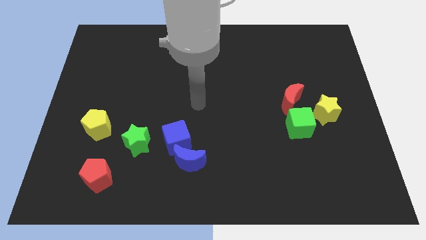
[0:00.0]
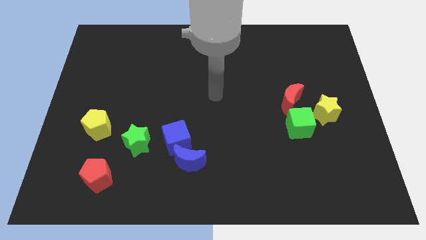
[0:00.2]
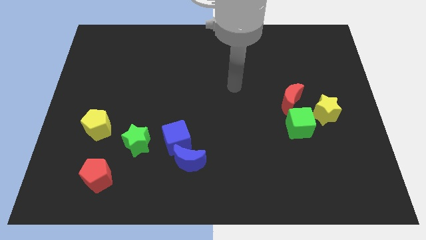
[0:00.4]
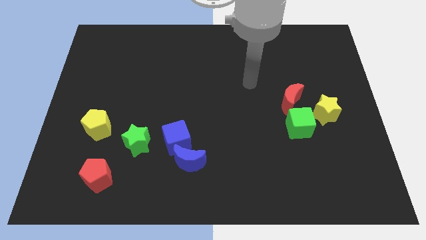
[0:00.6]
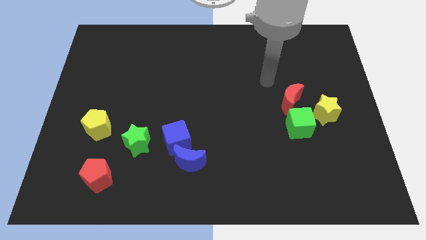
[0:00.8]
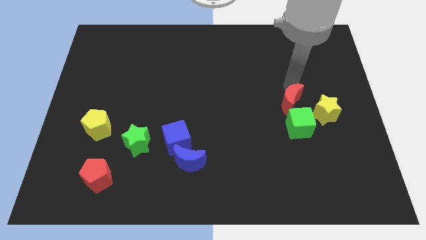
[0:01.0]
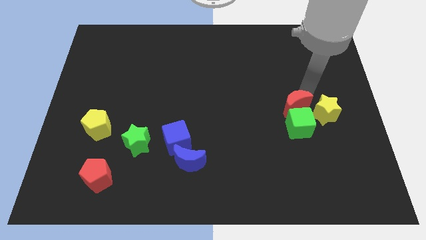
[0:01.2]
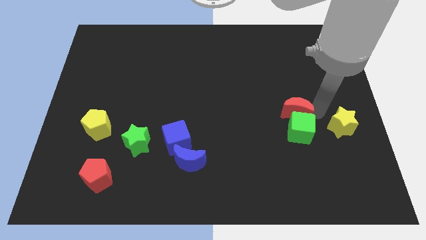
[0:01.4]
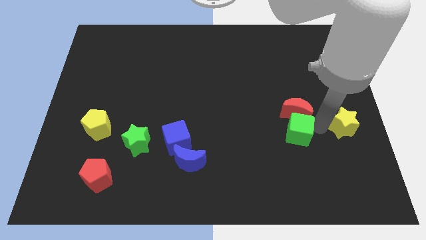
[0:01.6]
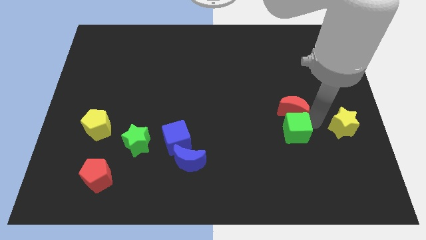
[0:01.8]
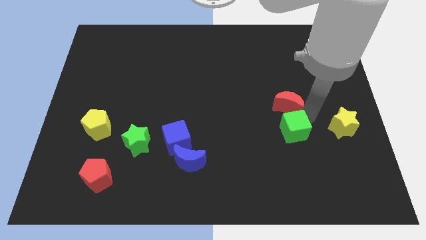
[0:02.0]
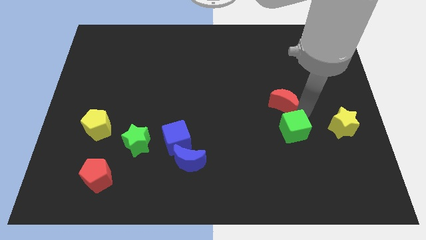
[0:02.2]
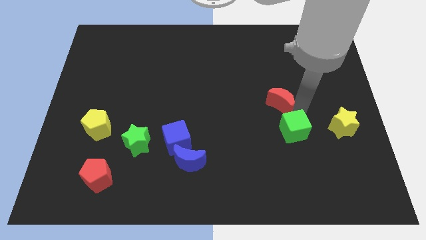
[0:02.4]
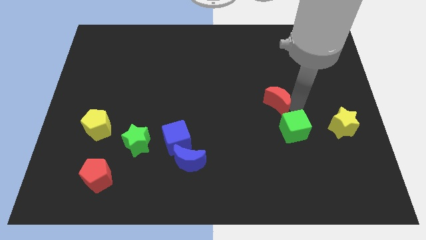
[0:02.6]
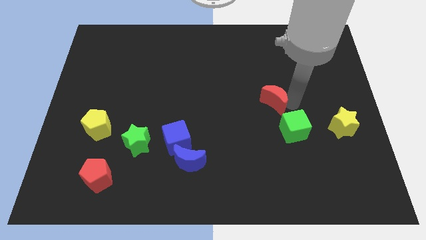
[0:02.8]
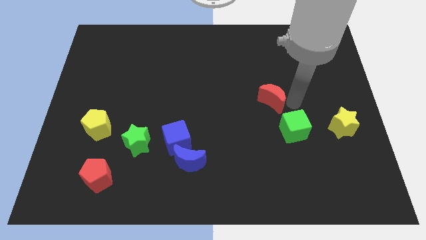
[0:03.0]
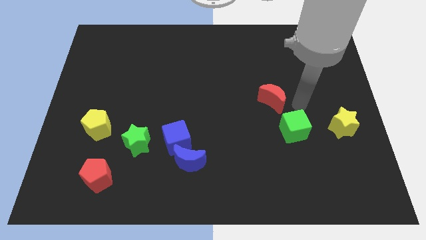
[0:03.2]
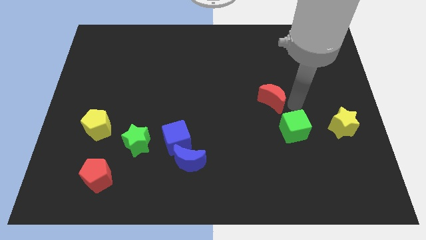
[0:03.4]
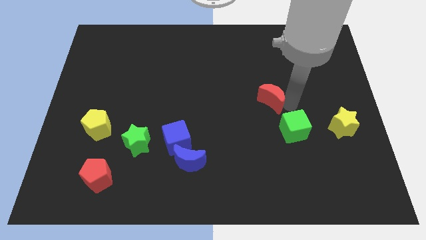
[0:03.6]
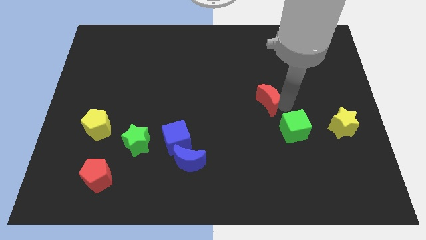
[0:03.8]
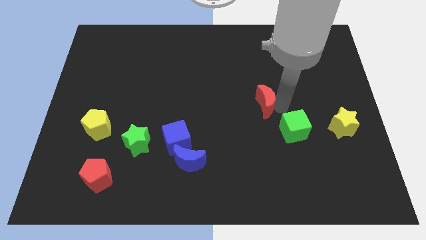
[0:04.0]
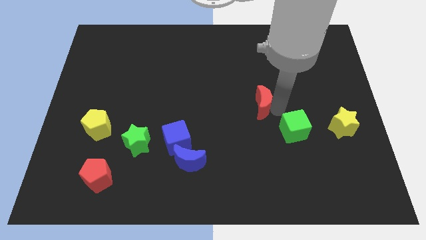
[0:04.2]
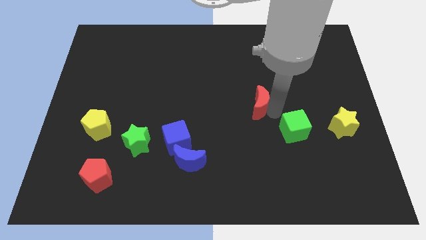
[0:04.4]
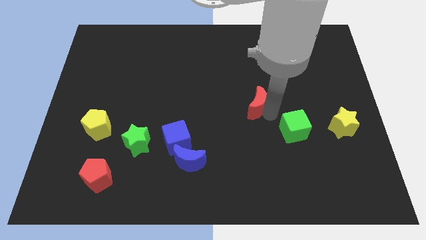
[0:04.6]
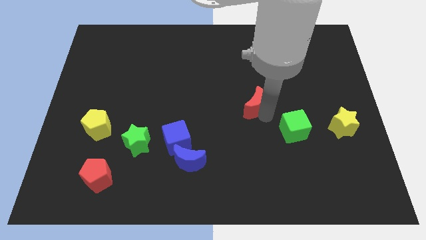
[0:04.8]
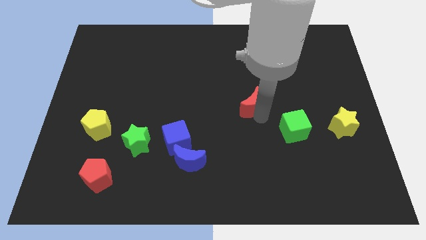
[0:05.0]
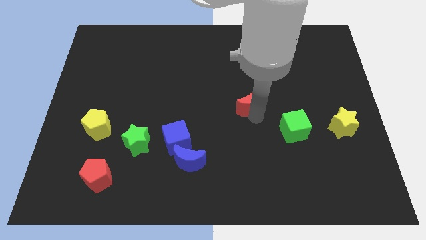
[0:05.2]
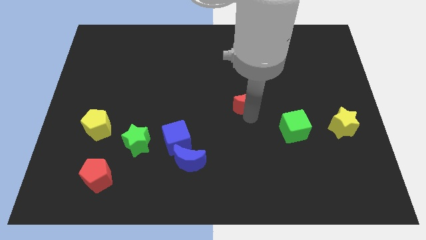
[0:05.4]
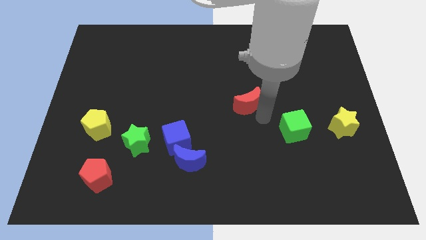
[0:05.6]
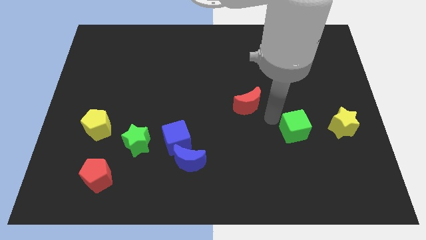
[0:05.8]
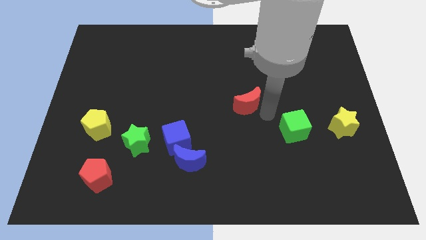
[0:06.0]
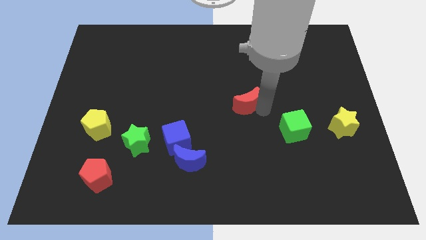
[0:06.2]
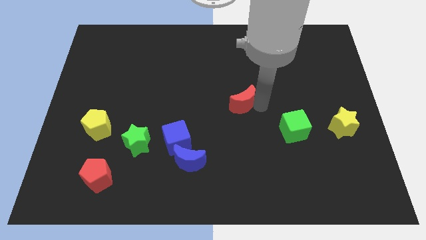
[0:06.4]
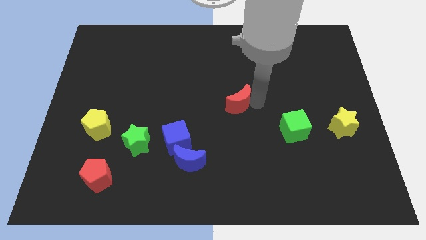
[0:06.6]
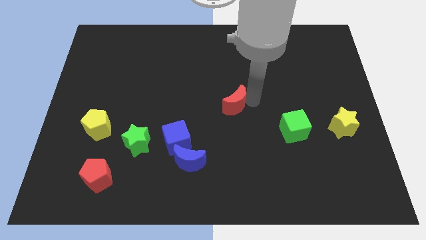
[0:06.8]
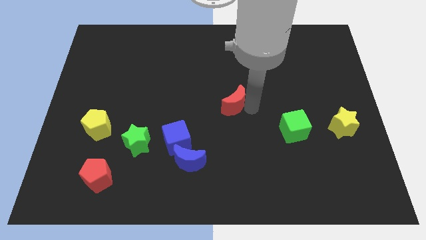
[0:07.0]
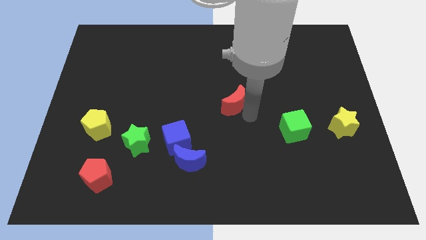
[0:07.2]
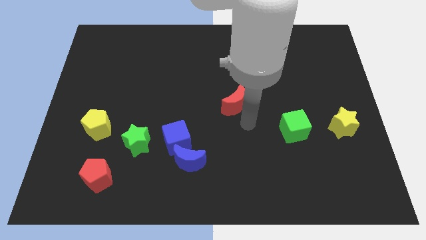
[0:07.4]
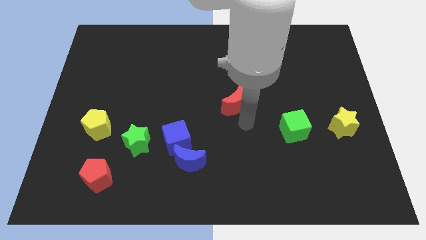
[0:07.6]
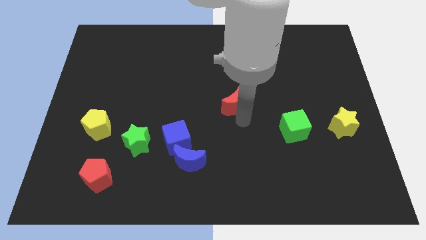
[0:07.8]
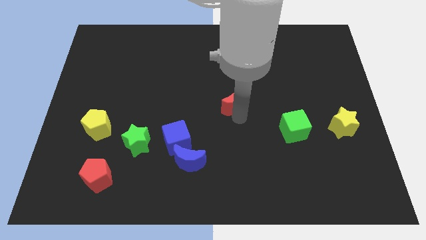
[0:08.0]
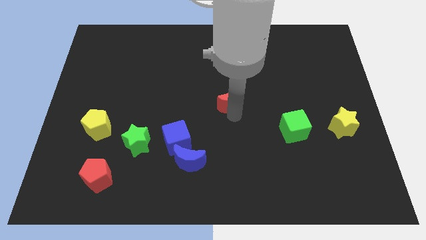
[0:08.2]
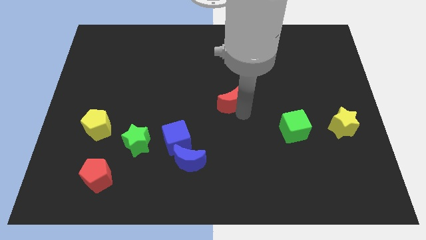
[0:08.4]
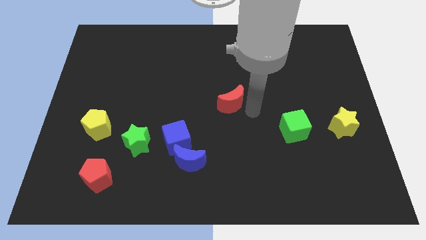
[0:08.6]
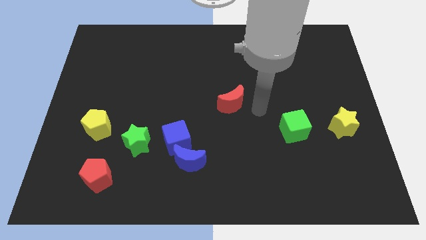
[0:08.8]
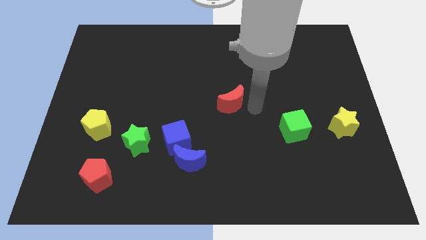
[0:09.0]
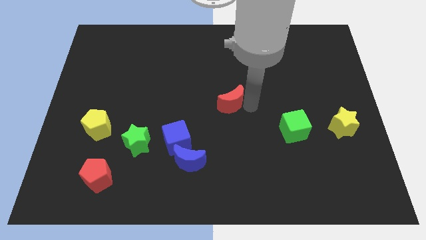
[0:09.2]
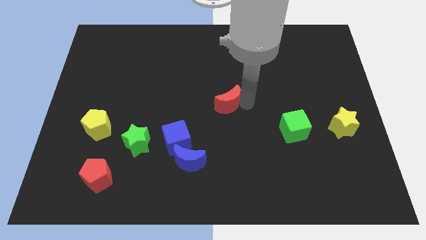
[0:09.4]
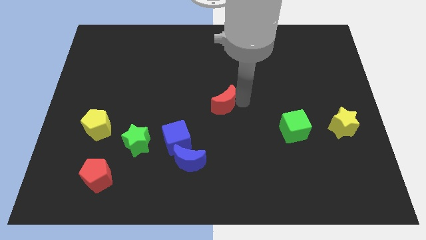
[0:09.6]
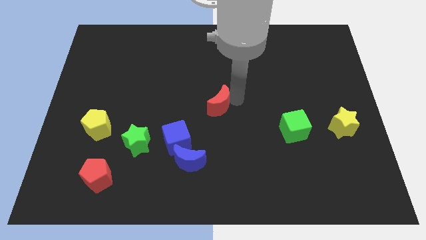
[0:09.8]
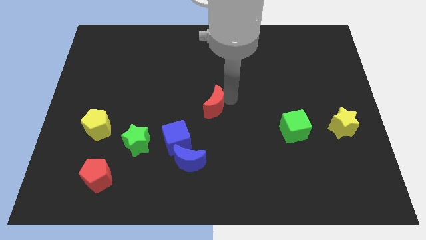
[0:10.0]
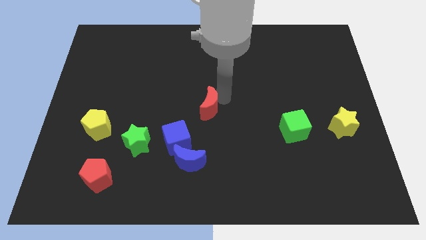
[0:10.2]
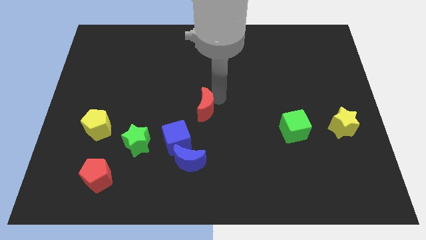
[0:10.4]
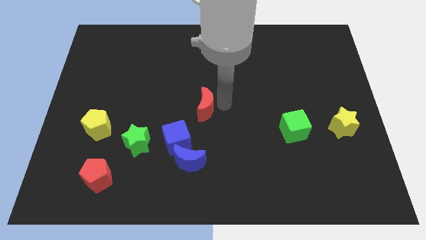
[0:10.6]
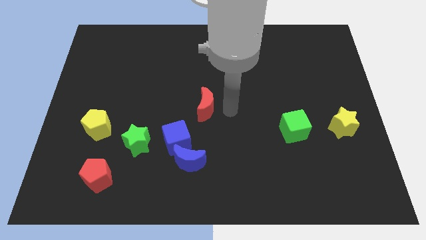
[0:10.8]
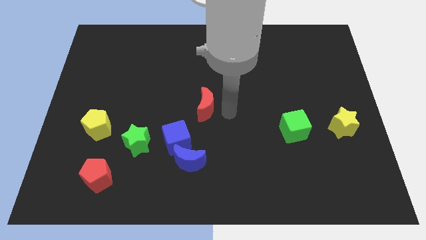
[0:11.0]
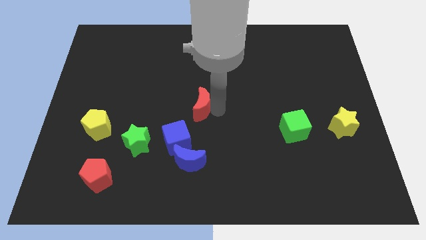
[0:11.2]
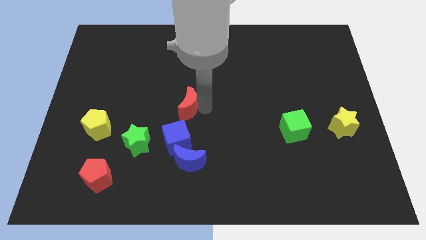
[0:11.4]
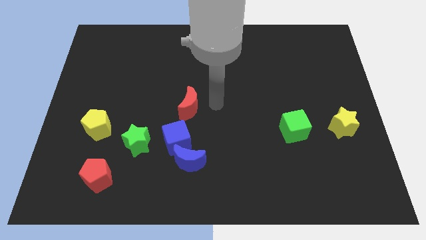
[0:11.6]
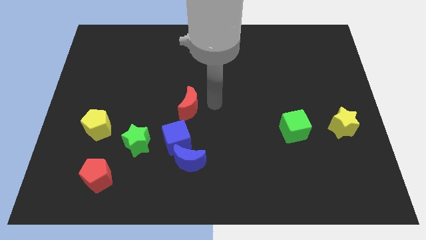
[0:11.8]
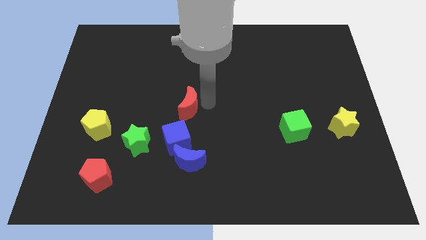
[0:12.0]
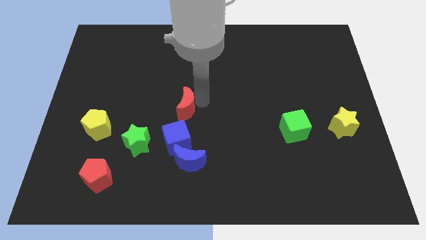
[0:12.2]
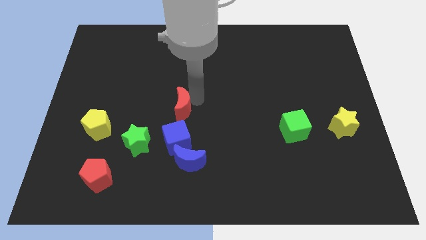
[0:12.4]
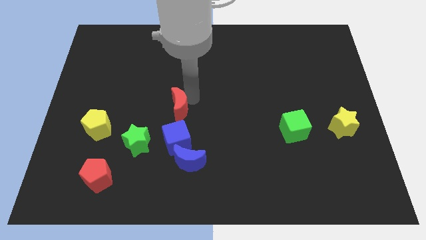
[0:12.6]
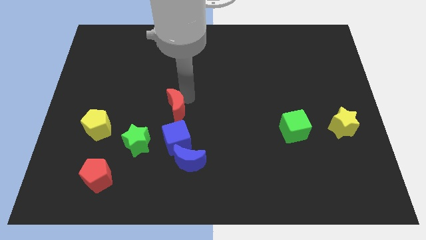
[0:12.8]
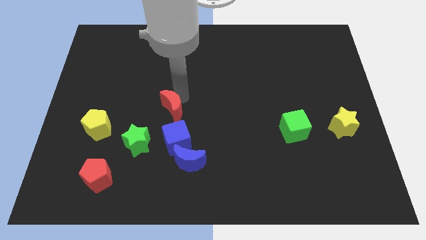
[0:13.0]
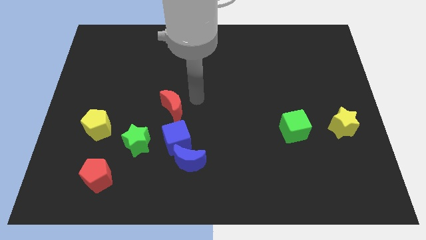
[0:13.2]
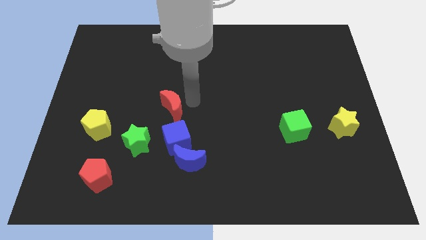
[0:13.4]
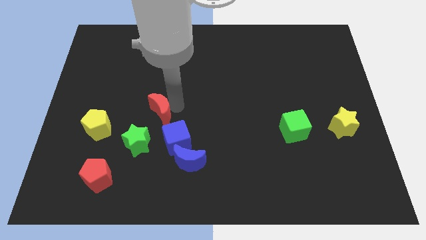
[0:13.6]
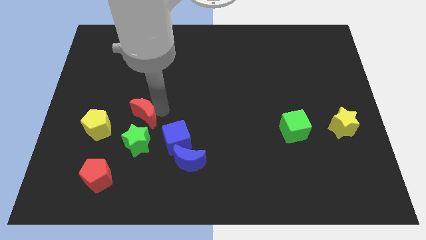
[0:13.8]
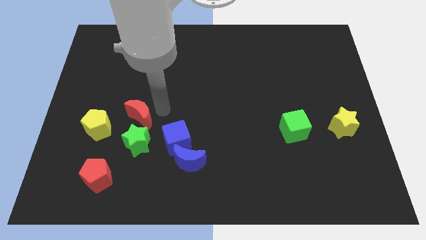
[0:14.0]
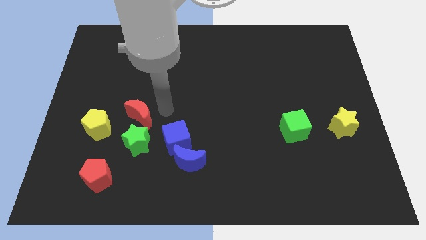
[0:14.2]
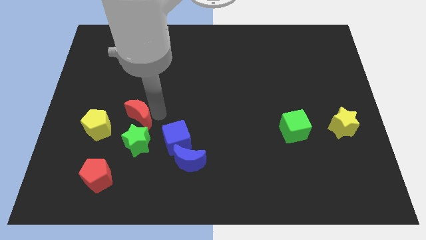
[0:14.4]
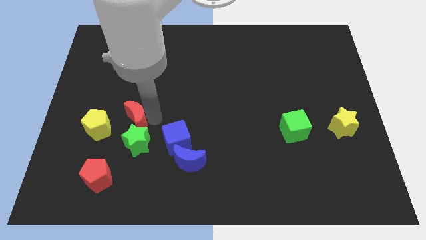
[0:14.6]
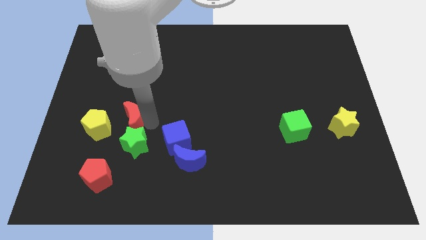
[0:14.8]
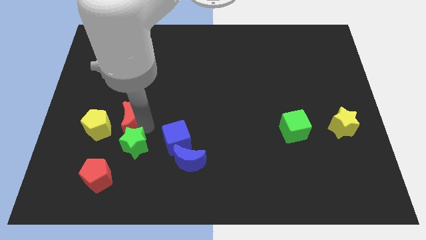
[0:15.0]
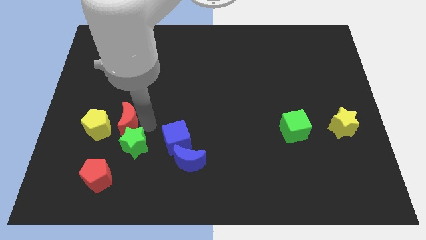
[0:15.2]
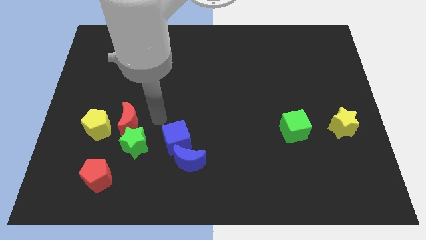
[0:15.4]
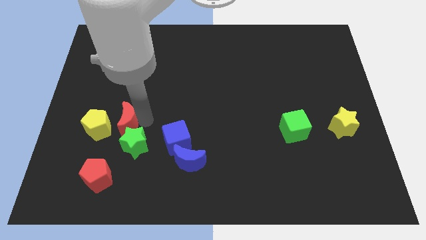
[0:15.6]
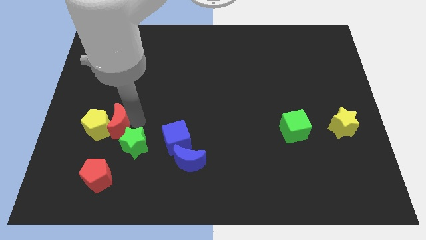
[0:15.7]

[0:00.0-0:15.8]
move the red moon towards the yellow pentagon
